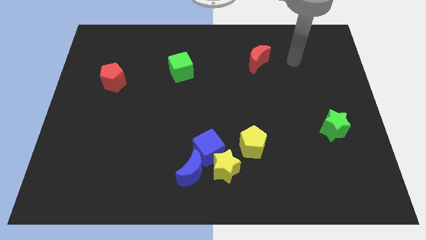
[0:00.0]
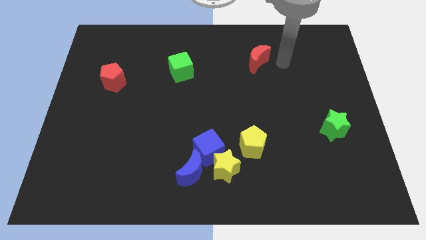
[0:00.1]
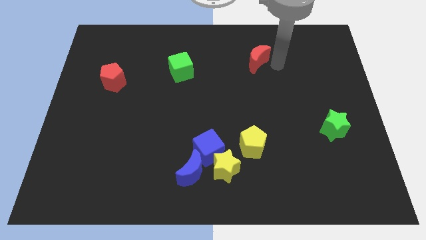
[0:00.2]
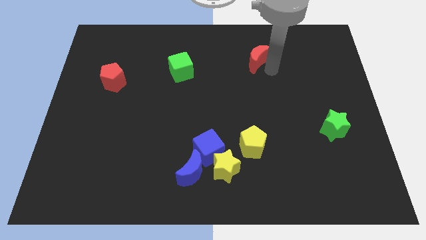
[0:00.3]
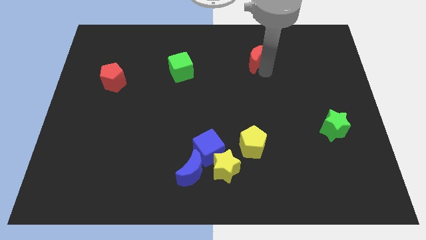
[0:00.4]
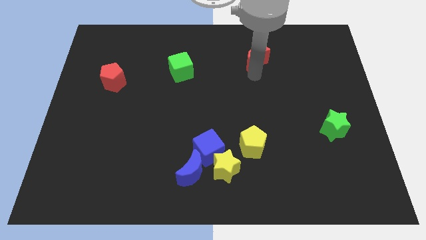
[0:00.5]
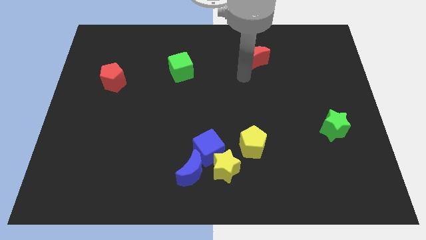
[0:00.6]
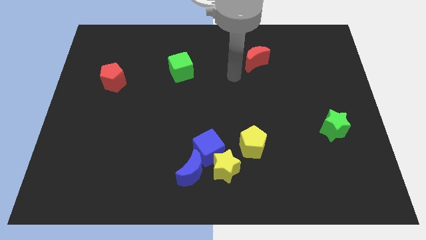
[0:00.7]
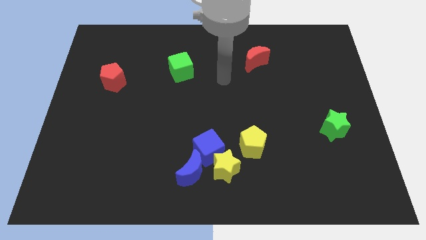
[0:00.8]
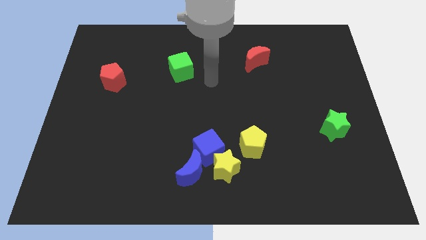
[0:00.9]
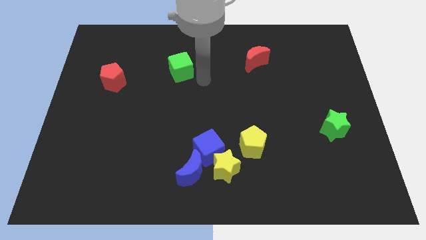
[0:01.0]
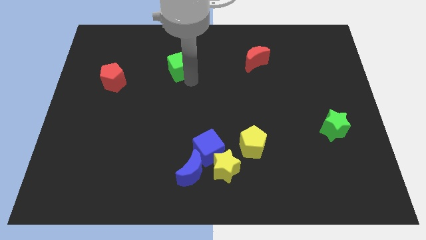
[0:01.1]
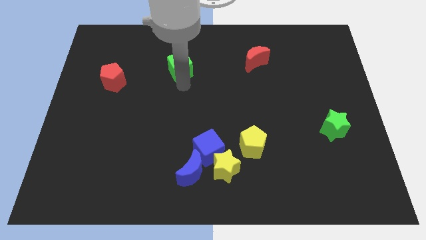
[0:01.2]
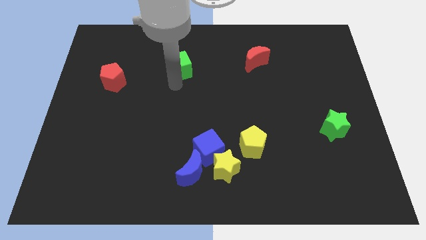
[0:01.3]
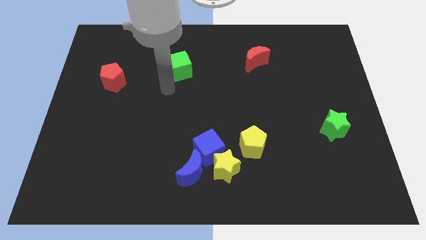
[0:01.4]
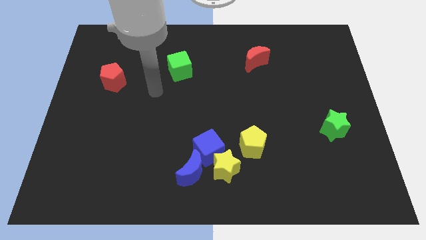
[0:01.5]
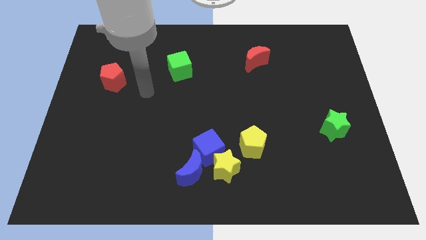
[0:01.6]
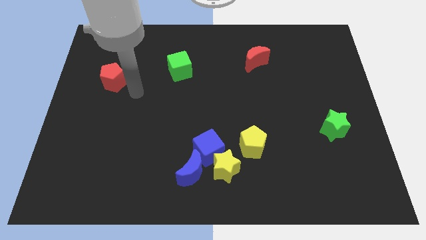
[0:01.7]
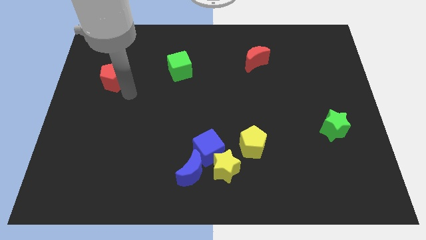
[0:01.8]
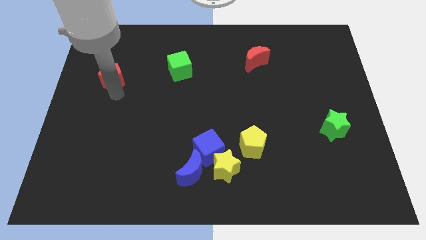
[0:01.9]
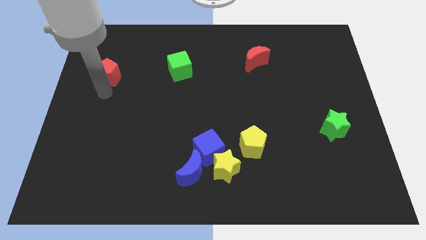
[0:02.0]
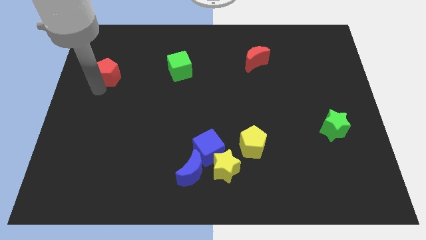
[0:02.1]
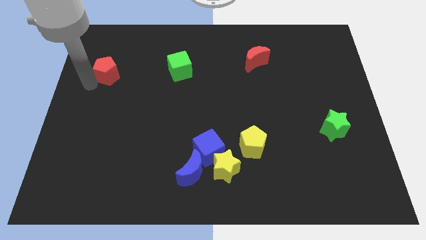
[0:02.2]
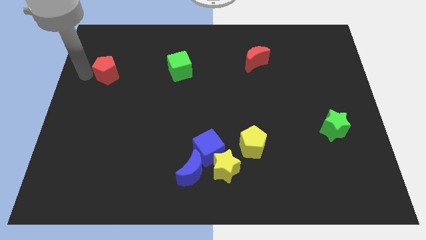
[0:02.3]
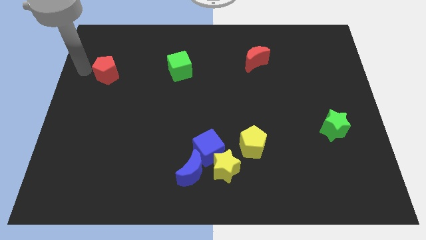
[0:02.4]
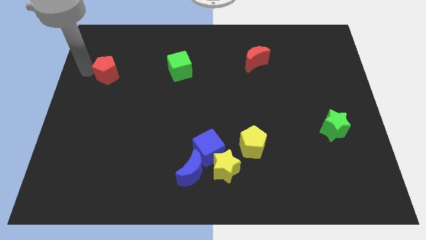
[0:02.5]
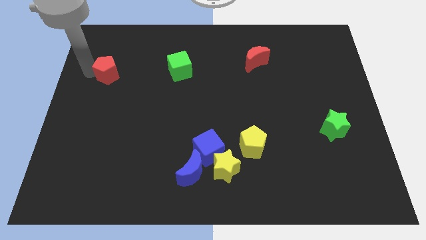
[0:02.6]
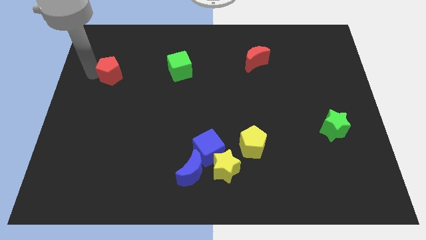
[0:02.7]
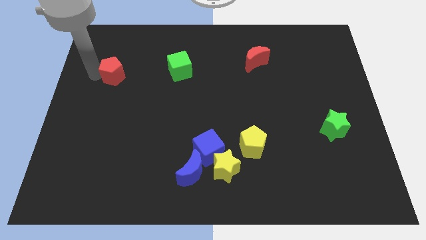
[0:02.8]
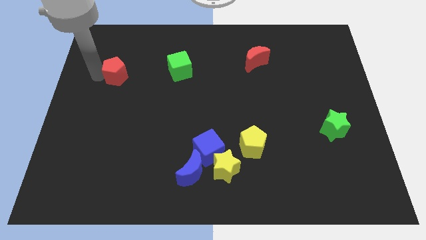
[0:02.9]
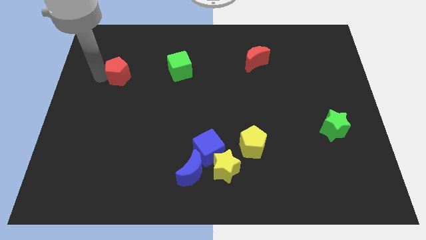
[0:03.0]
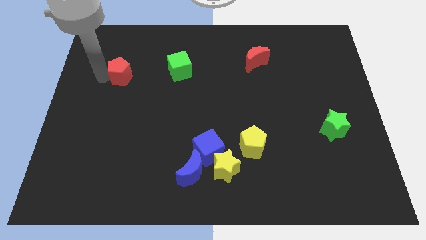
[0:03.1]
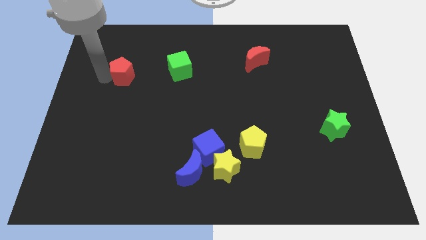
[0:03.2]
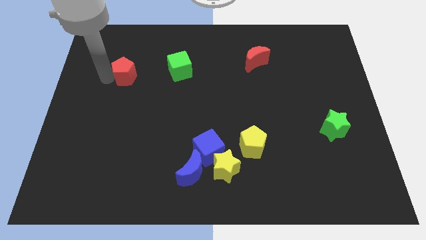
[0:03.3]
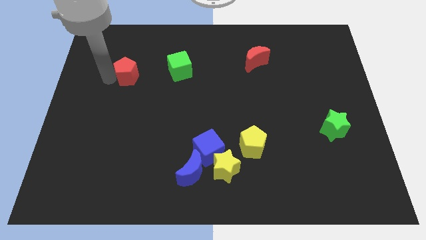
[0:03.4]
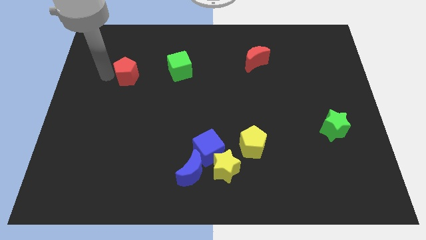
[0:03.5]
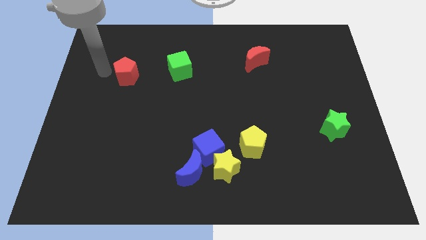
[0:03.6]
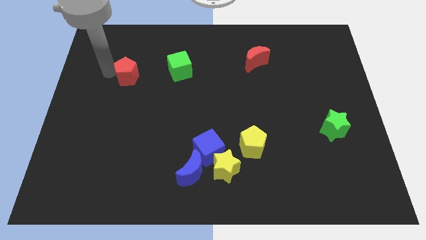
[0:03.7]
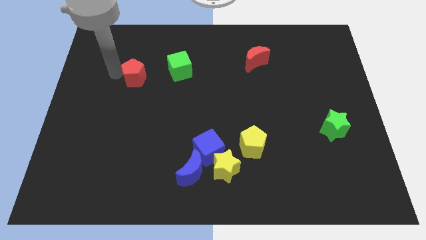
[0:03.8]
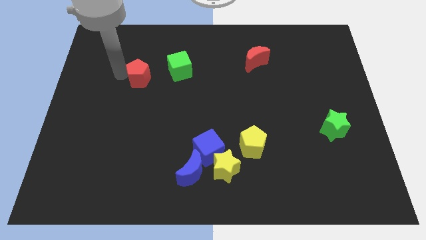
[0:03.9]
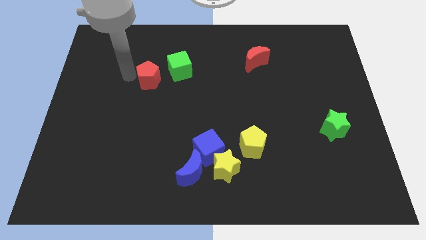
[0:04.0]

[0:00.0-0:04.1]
push the red pentagon a little bit to the right

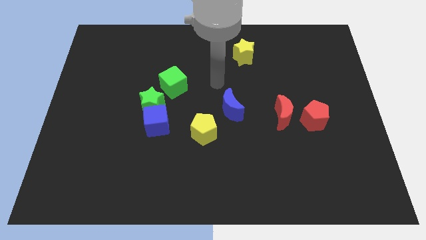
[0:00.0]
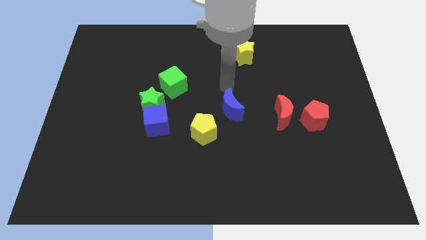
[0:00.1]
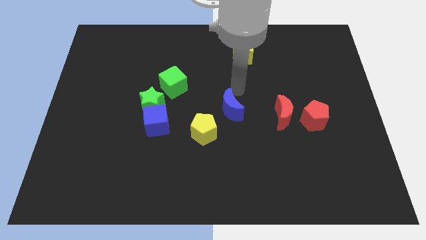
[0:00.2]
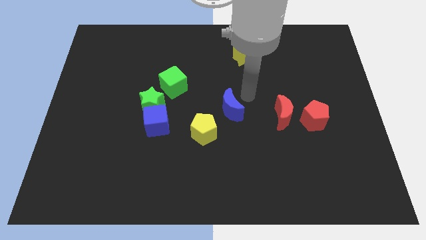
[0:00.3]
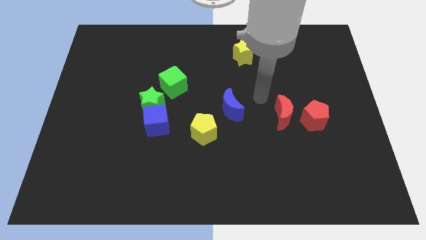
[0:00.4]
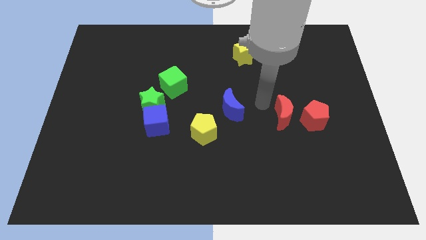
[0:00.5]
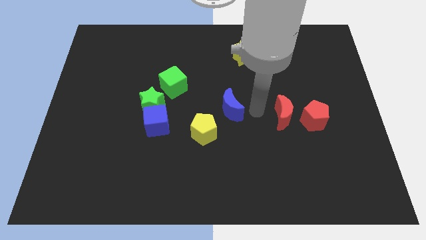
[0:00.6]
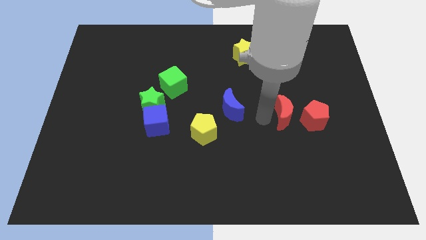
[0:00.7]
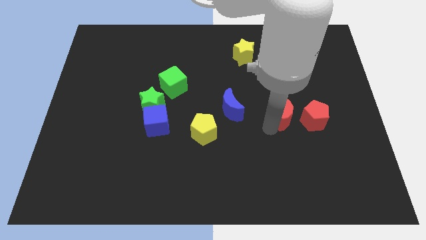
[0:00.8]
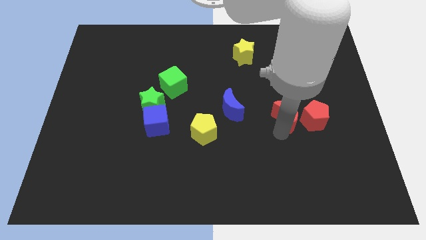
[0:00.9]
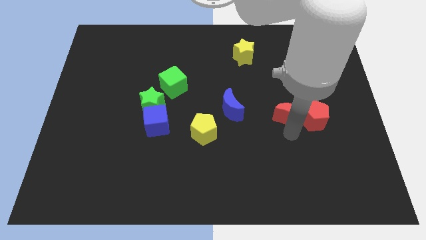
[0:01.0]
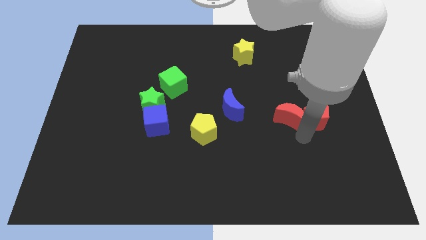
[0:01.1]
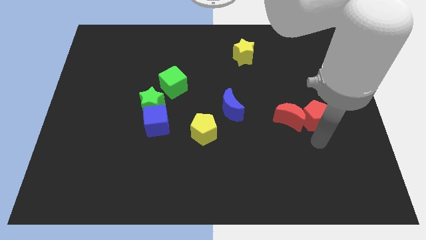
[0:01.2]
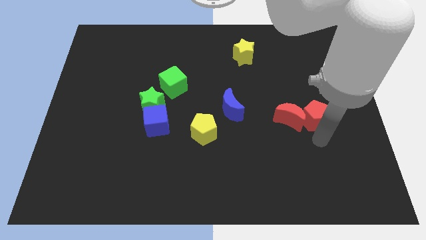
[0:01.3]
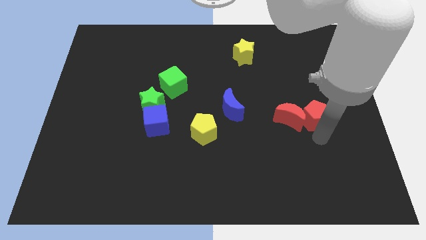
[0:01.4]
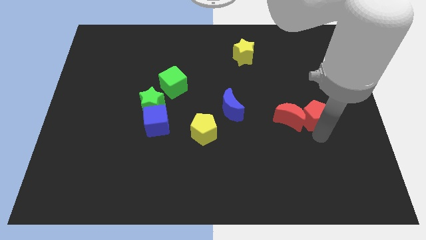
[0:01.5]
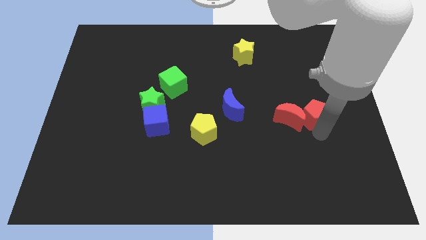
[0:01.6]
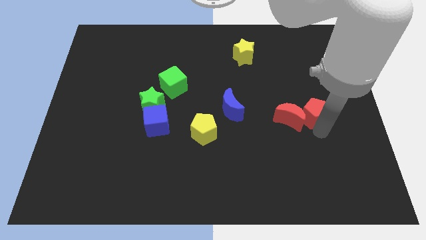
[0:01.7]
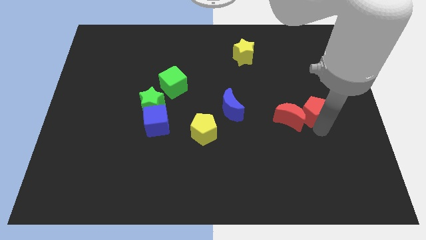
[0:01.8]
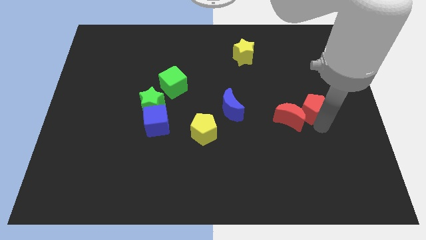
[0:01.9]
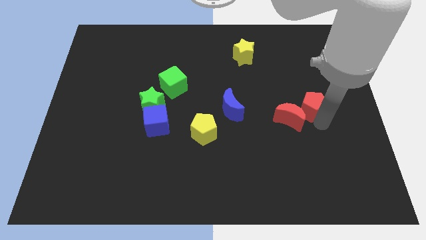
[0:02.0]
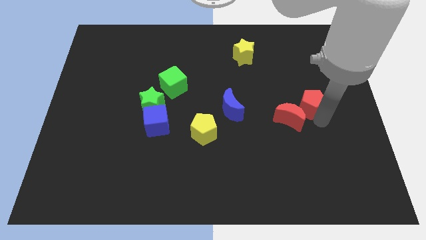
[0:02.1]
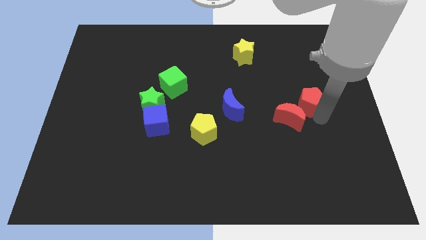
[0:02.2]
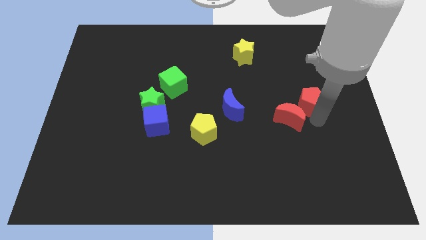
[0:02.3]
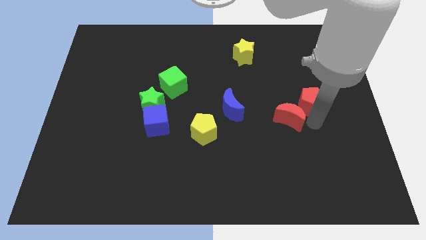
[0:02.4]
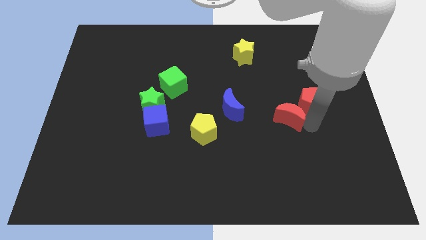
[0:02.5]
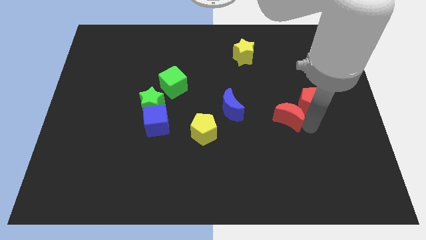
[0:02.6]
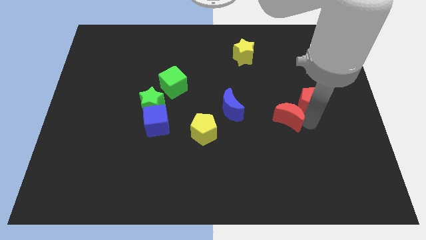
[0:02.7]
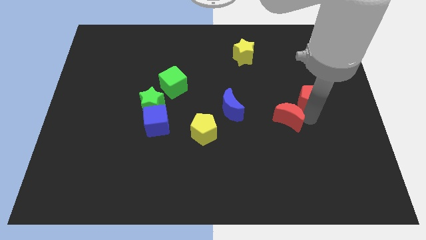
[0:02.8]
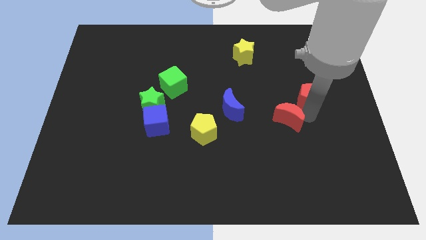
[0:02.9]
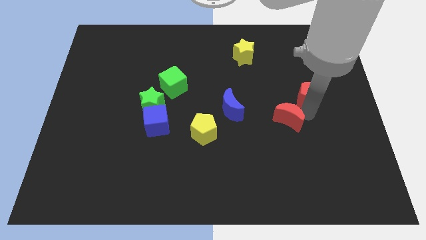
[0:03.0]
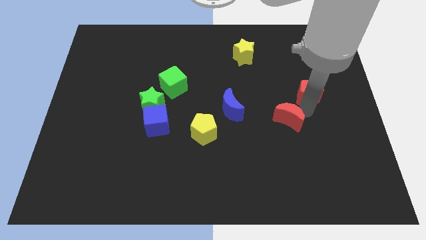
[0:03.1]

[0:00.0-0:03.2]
move the red pentagon up a little

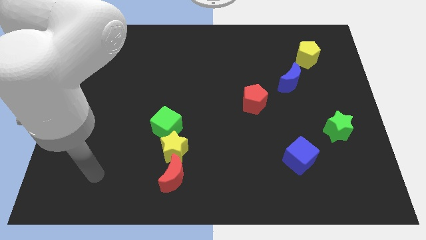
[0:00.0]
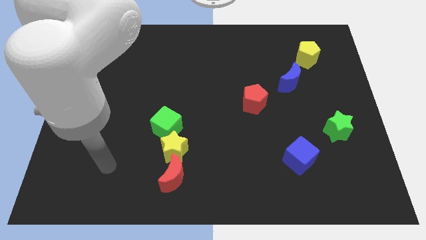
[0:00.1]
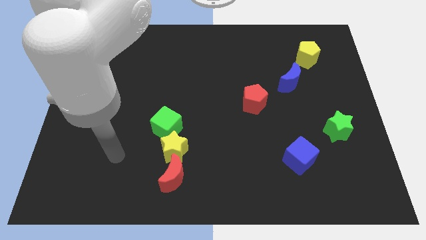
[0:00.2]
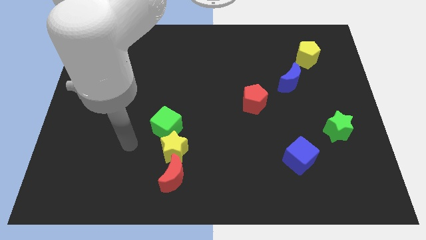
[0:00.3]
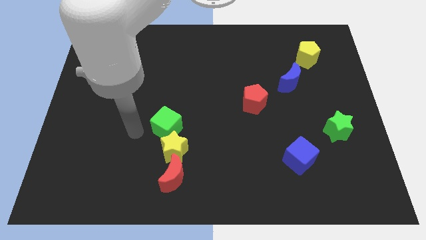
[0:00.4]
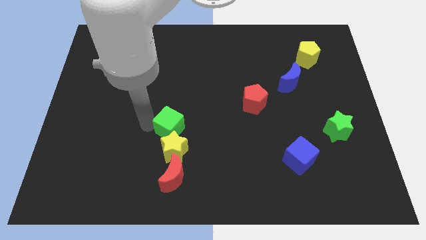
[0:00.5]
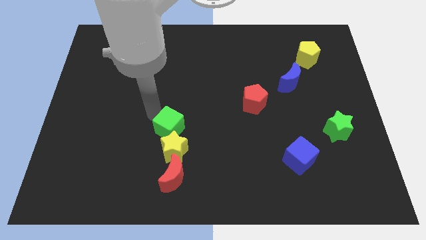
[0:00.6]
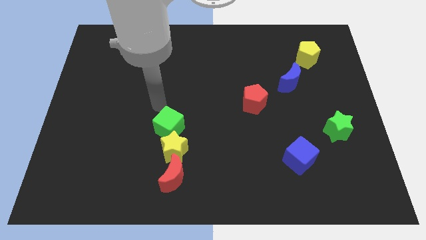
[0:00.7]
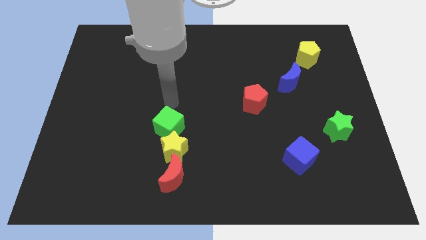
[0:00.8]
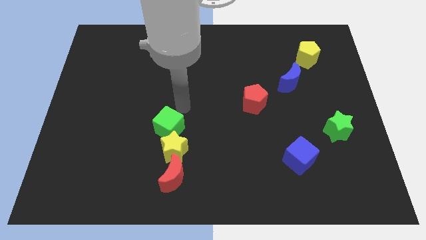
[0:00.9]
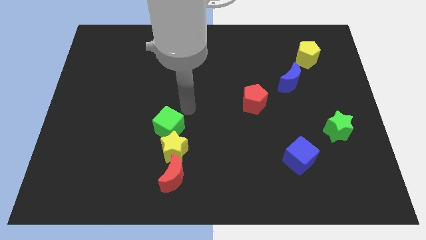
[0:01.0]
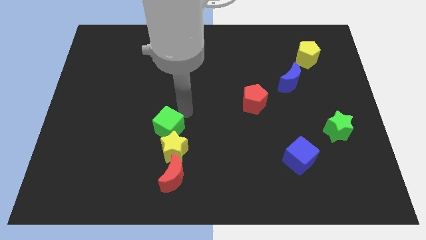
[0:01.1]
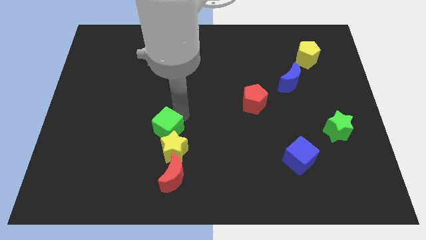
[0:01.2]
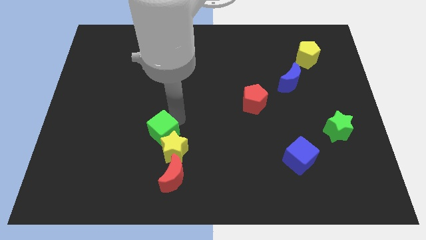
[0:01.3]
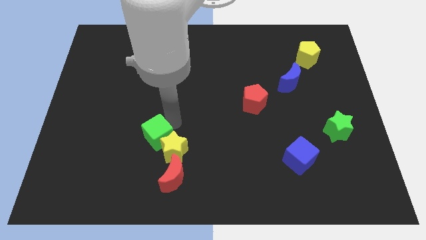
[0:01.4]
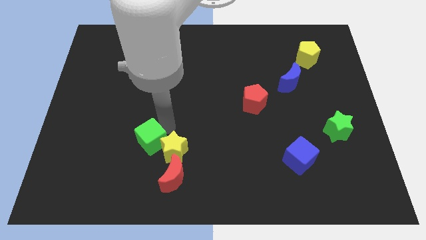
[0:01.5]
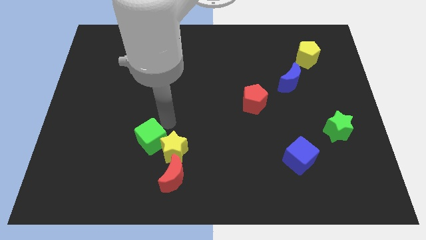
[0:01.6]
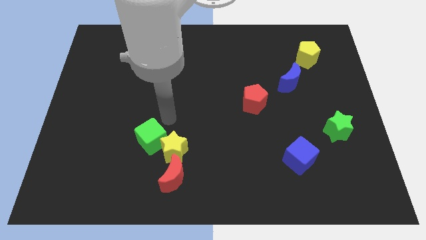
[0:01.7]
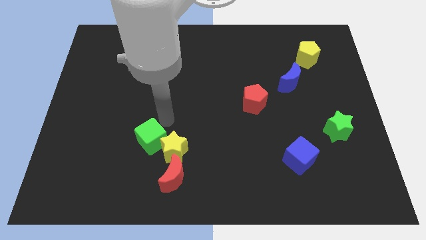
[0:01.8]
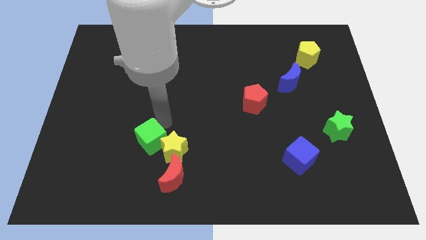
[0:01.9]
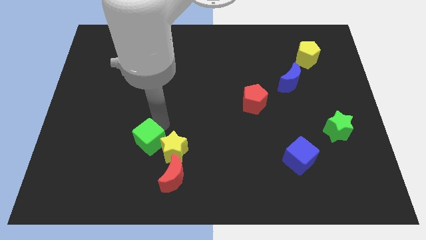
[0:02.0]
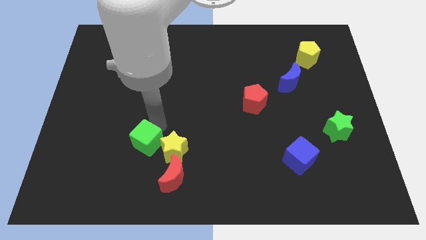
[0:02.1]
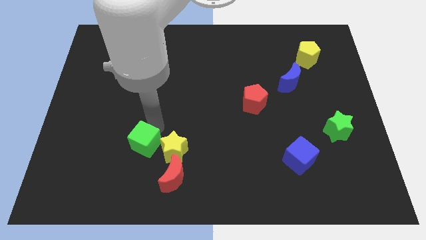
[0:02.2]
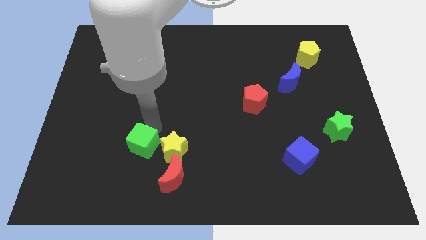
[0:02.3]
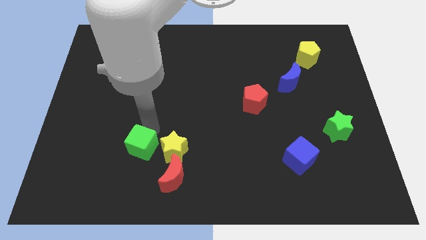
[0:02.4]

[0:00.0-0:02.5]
push the green cube somewhat downwards and then left
